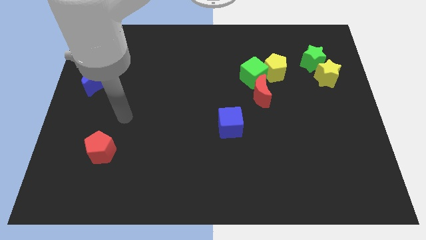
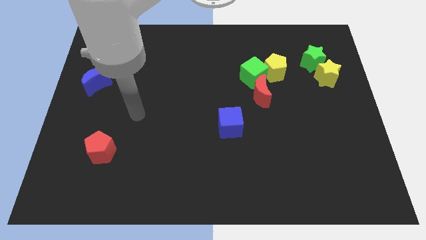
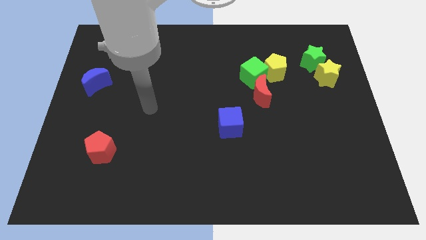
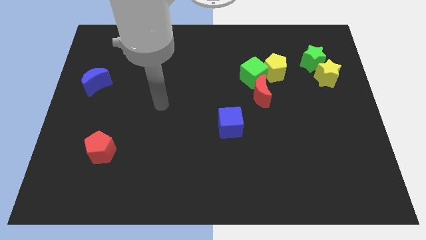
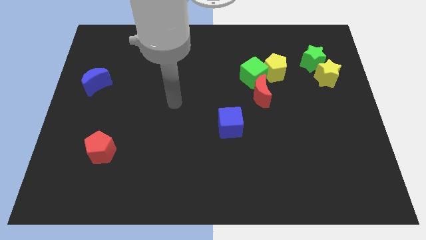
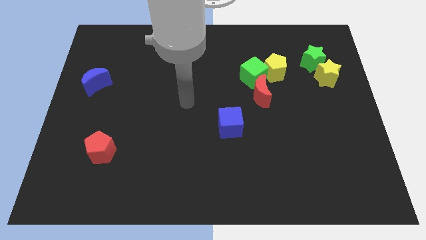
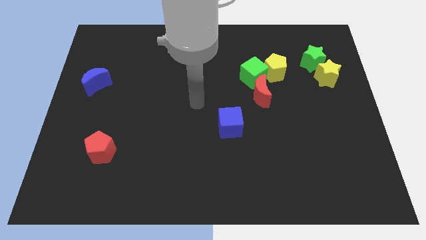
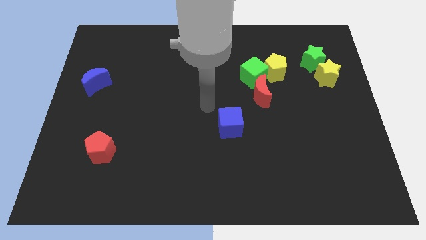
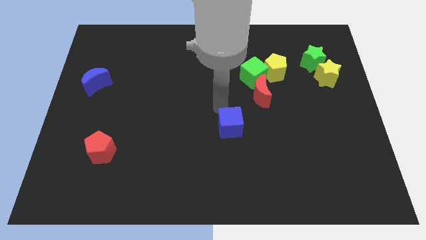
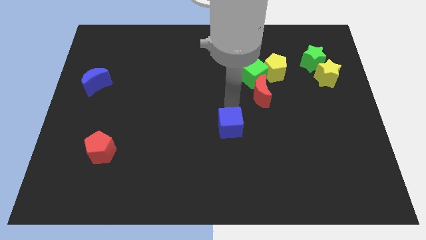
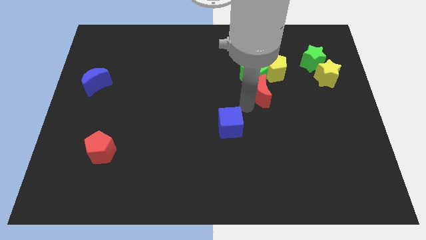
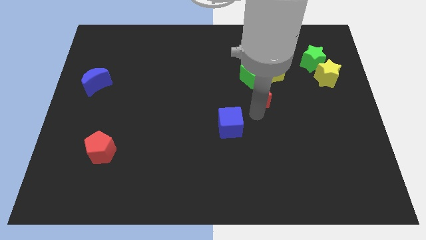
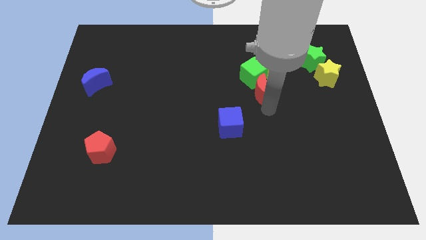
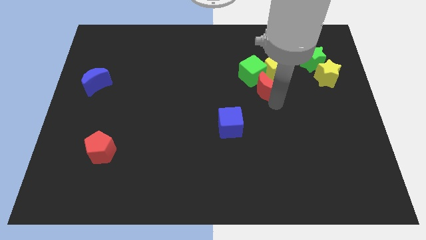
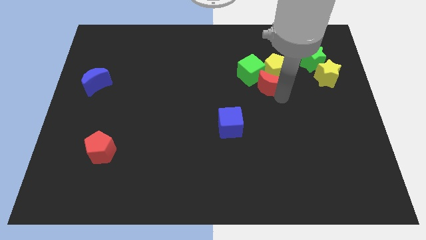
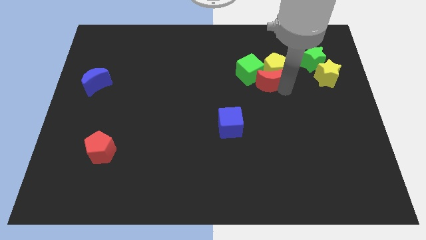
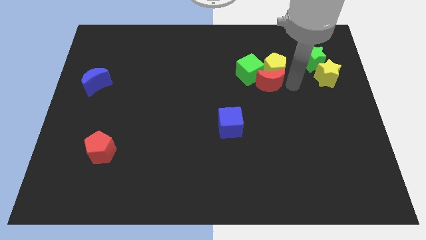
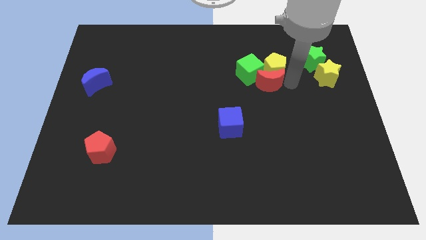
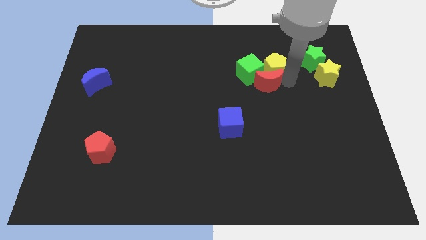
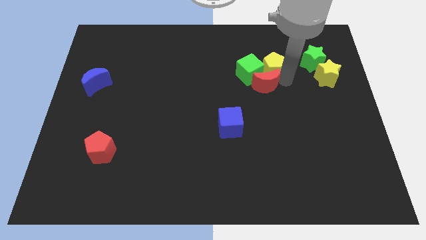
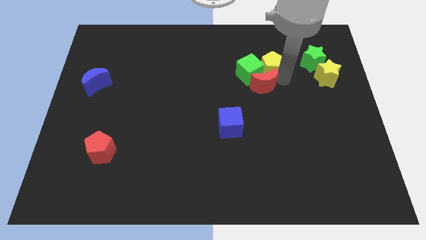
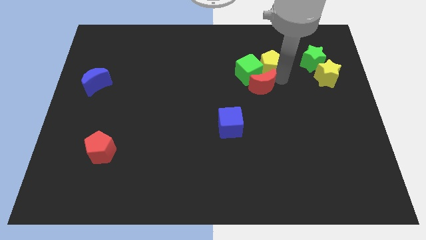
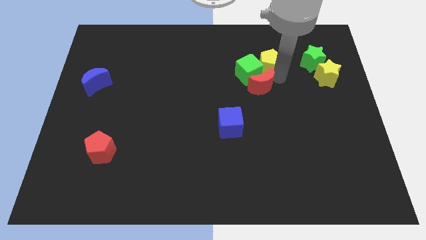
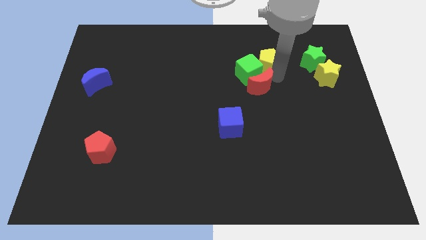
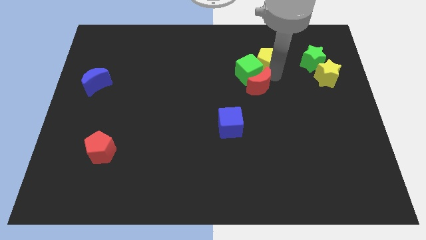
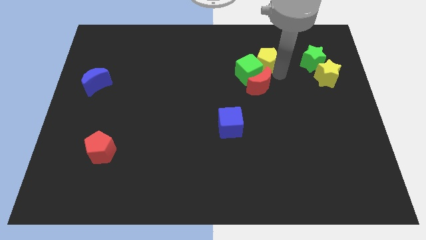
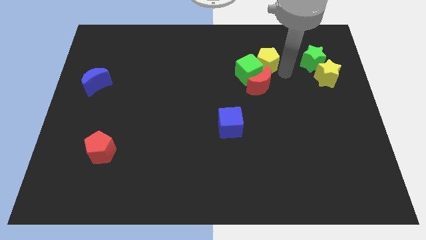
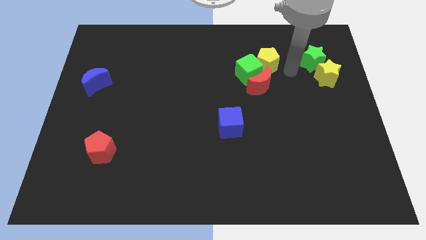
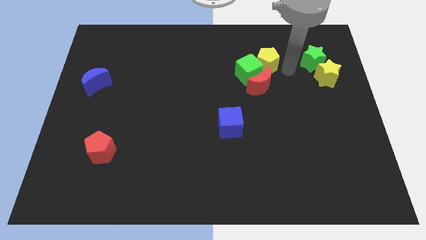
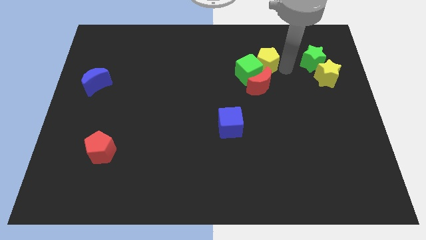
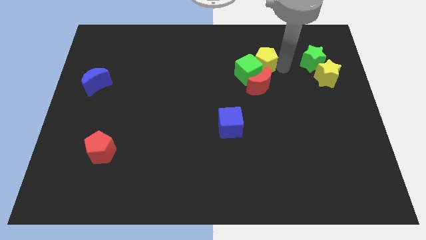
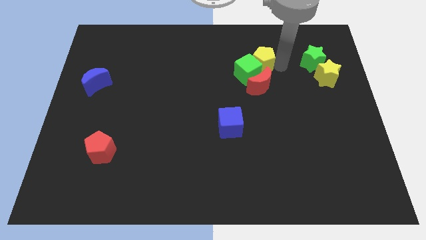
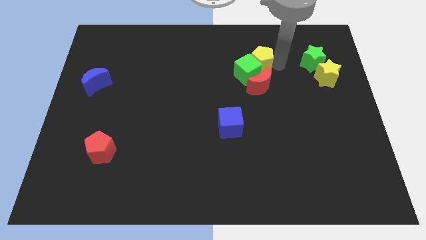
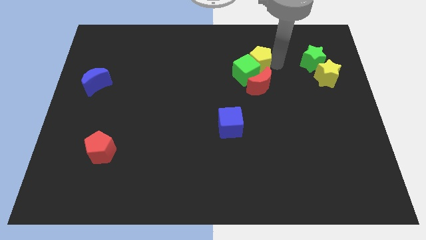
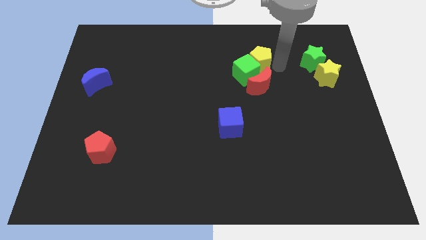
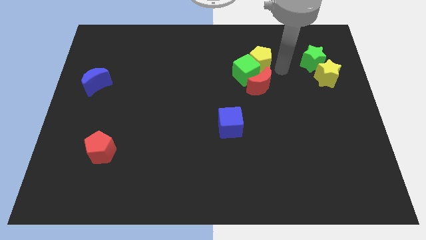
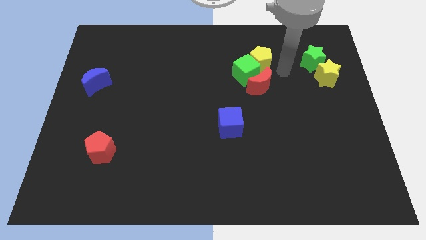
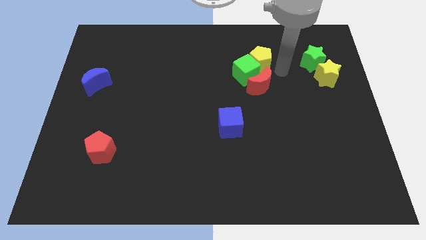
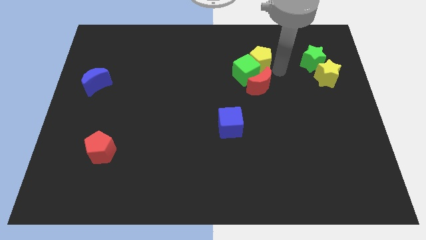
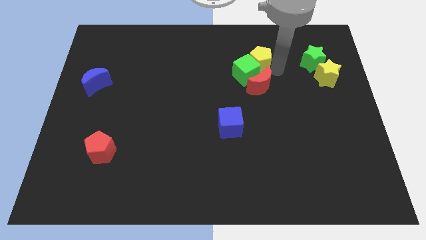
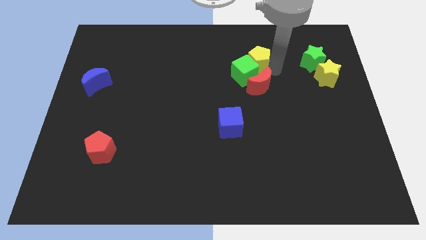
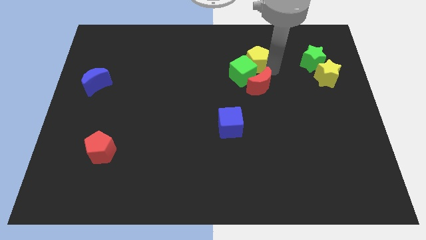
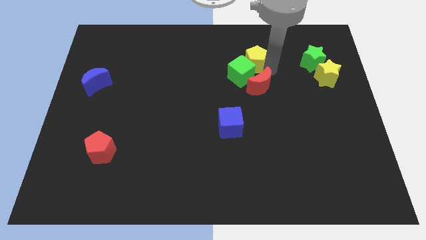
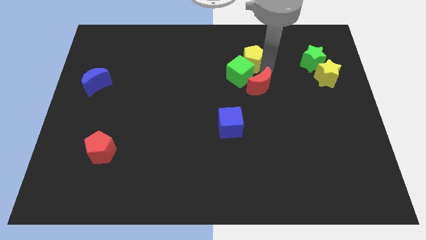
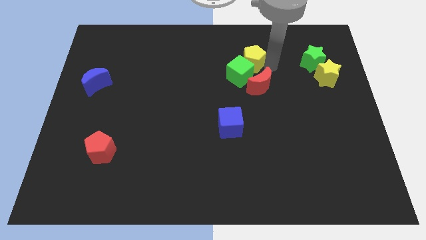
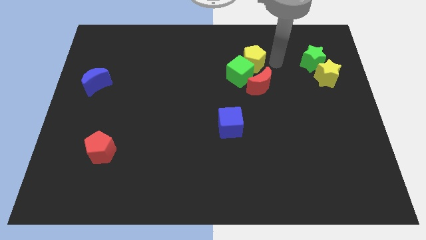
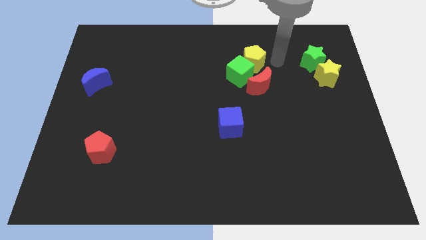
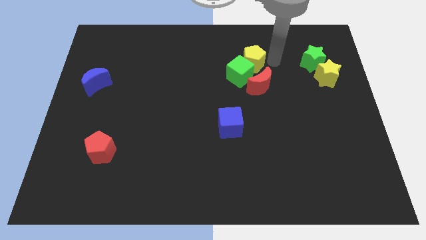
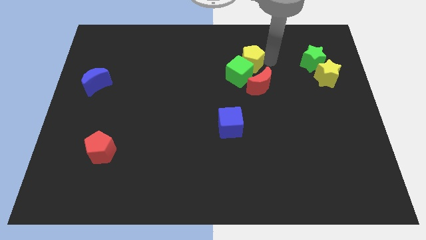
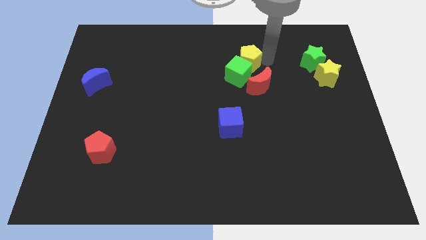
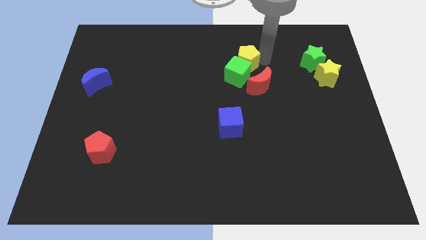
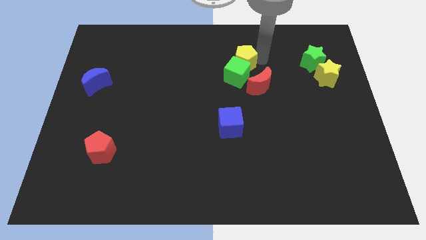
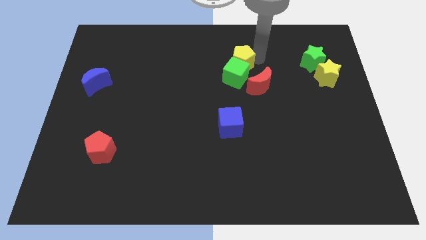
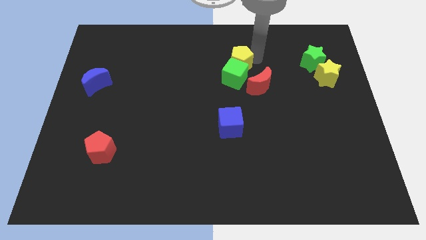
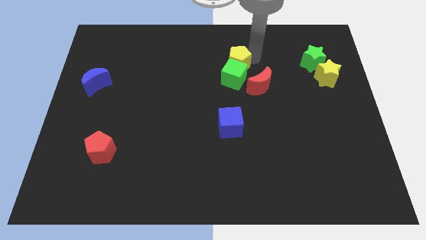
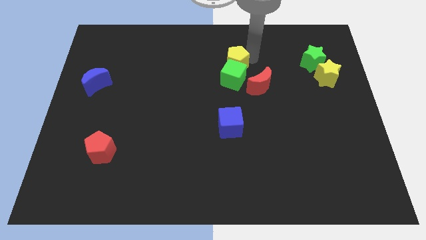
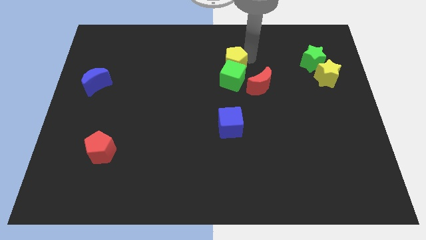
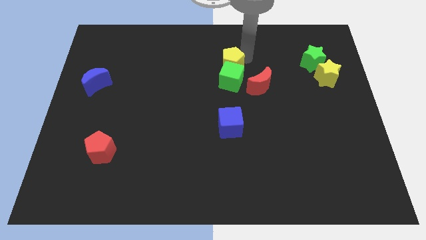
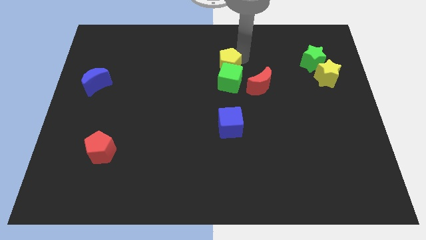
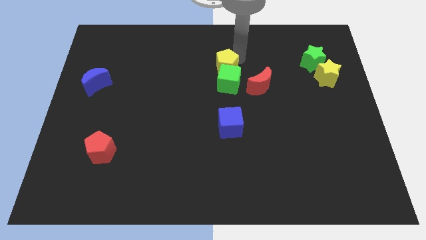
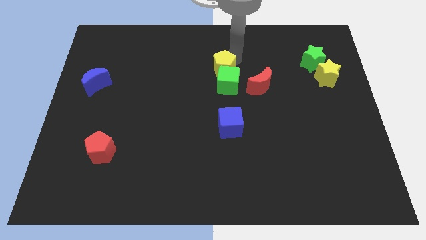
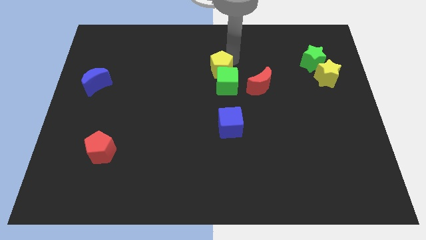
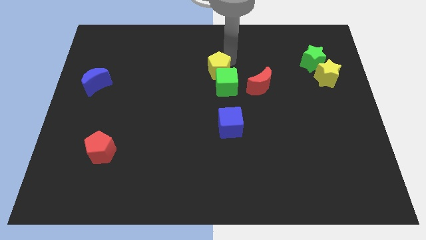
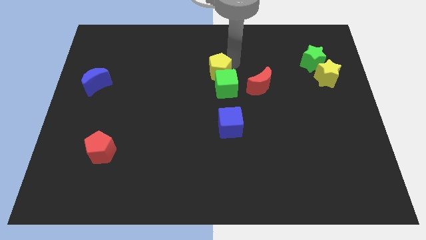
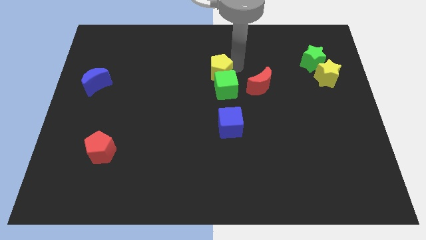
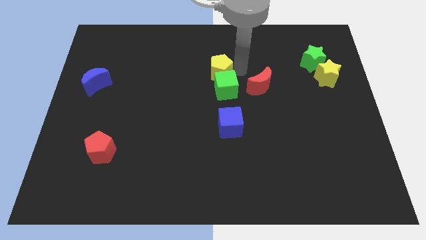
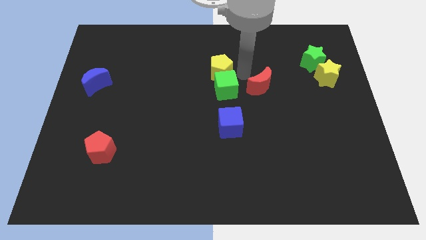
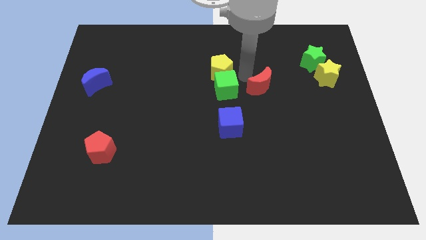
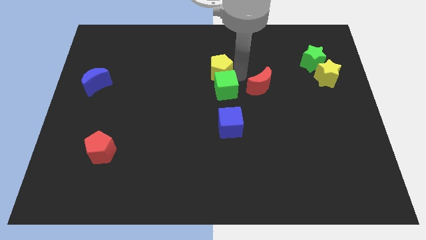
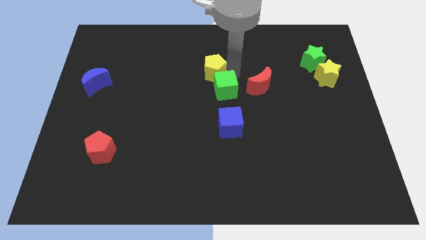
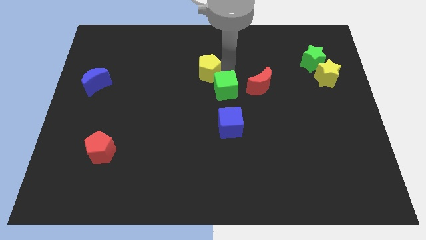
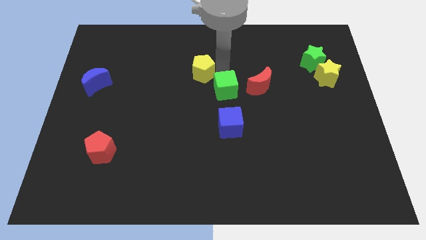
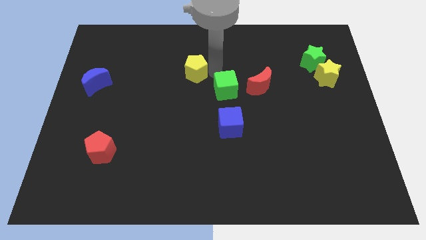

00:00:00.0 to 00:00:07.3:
push the yellow pentagon left

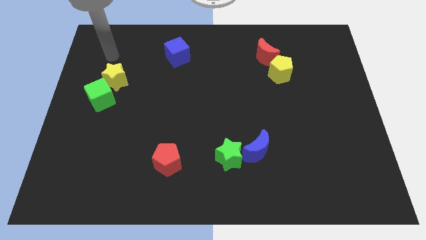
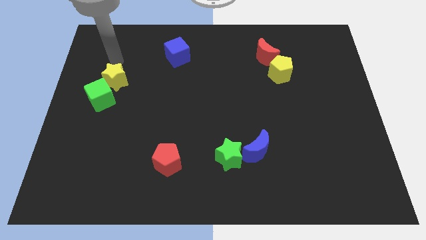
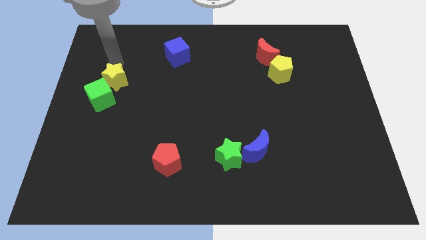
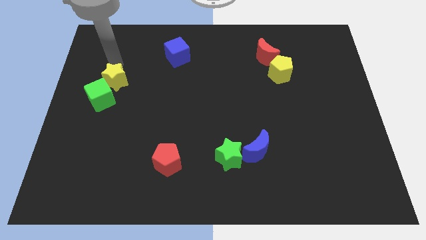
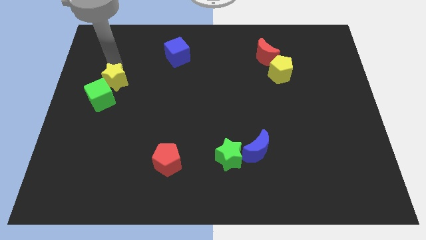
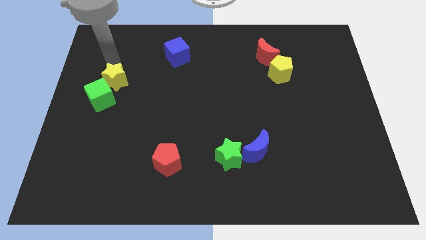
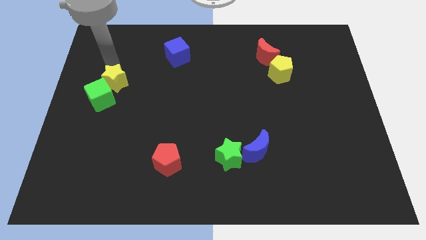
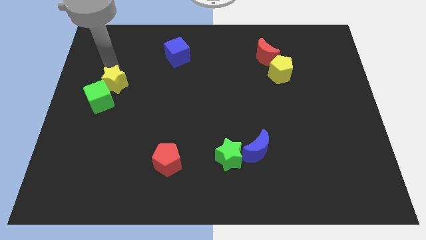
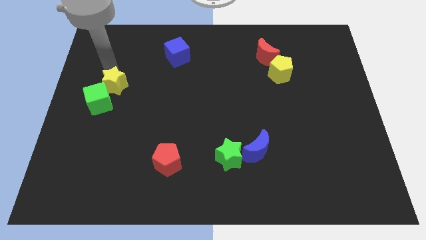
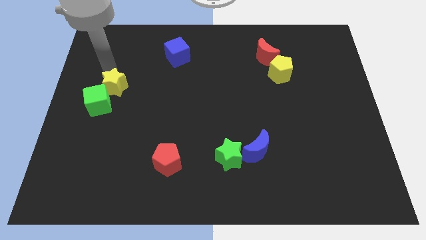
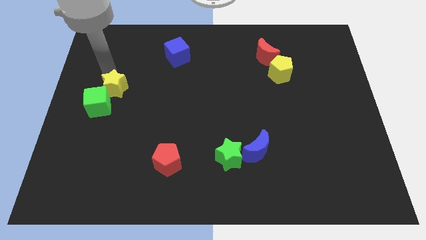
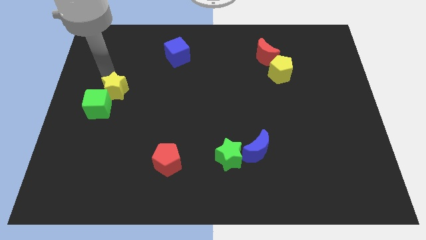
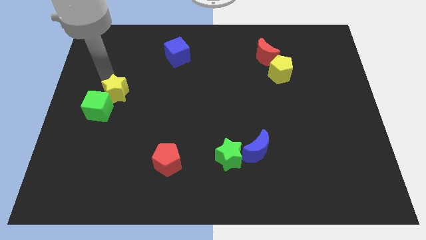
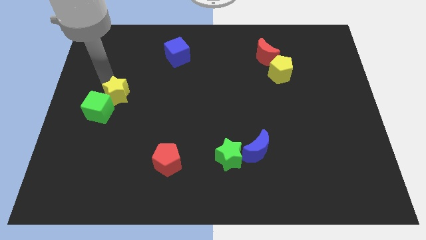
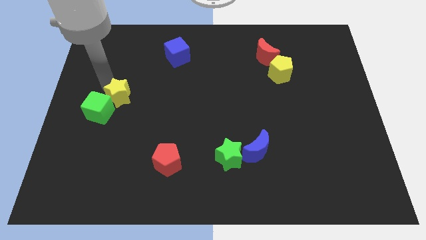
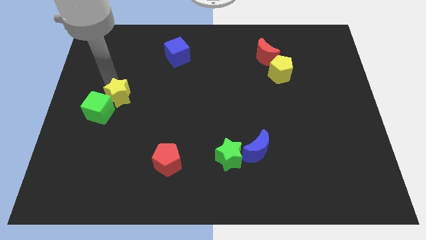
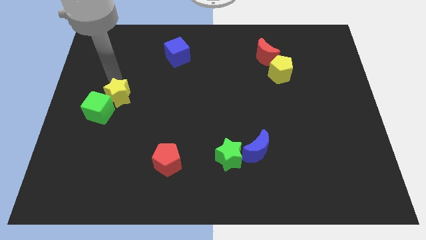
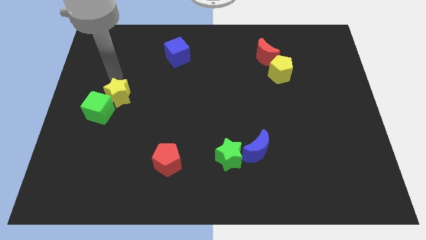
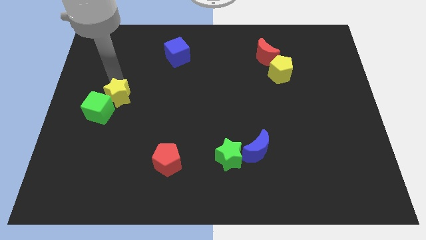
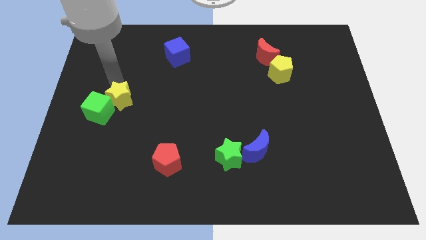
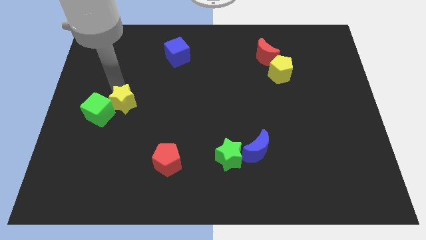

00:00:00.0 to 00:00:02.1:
move the yellow star a little down
